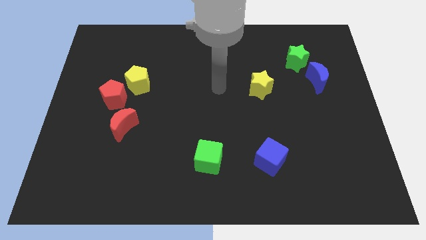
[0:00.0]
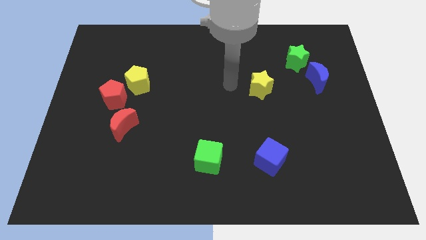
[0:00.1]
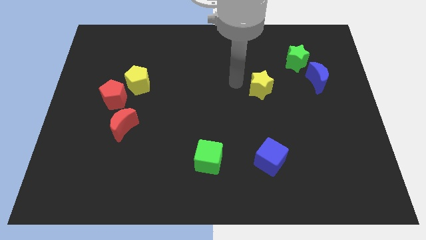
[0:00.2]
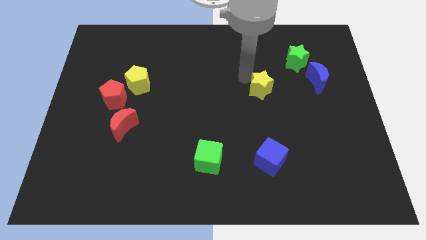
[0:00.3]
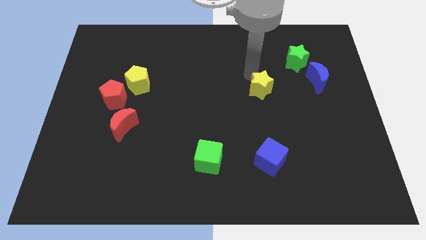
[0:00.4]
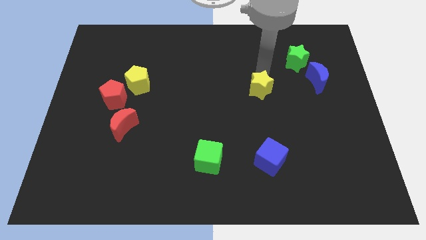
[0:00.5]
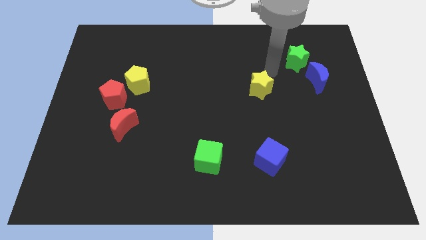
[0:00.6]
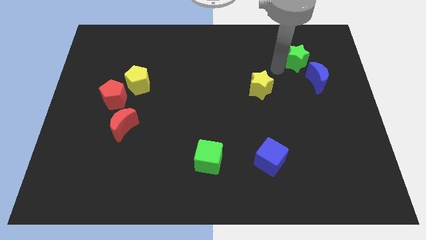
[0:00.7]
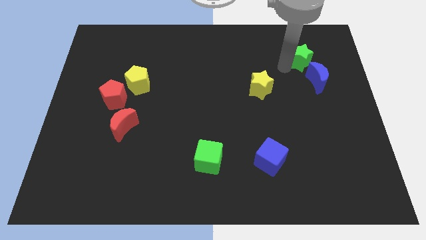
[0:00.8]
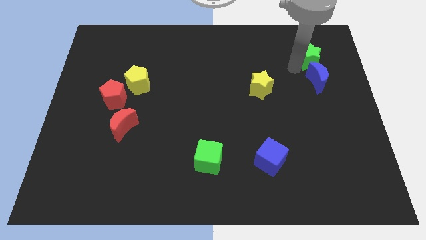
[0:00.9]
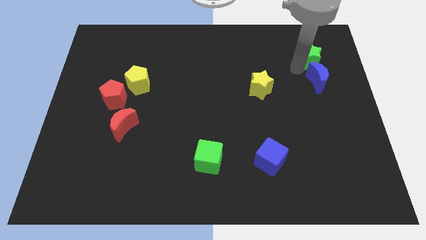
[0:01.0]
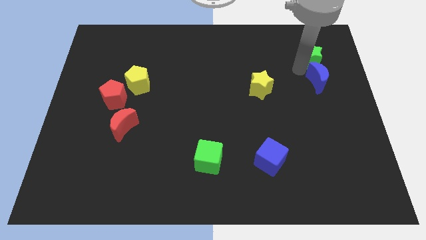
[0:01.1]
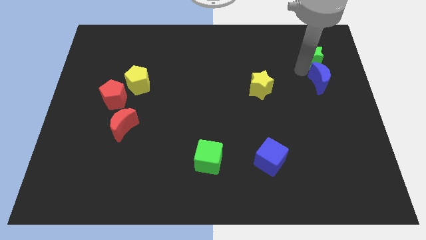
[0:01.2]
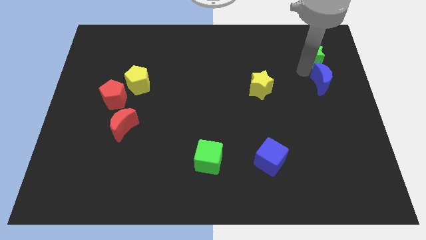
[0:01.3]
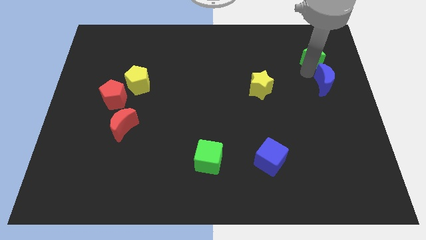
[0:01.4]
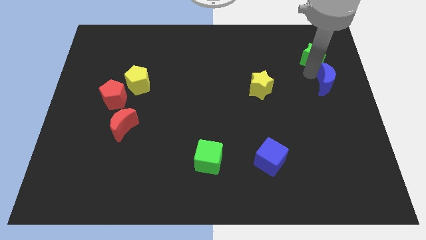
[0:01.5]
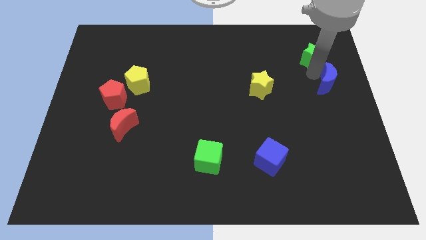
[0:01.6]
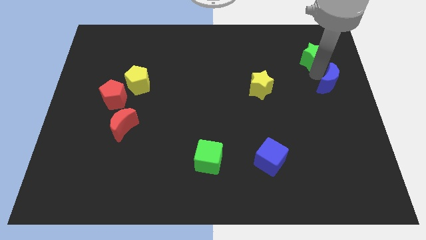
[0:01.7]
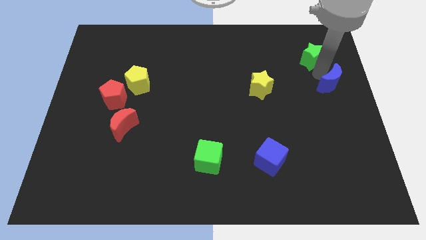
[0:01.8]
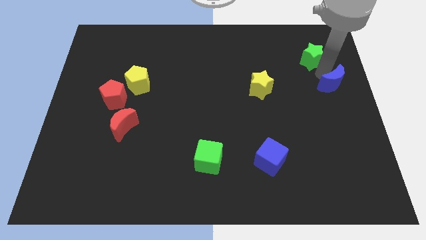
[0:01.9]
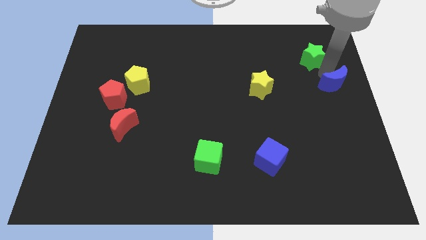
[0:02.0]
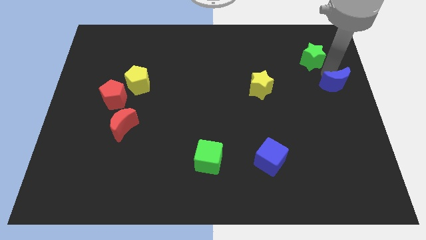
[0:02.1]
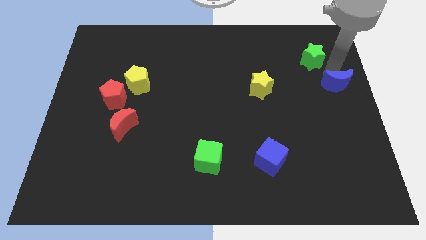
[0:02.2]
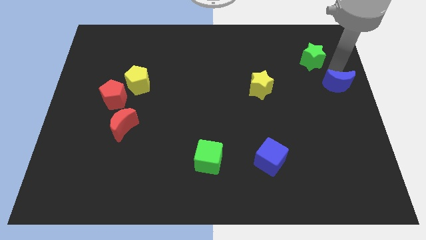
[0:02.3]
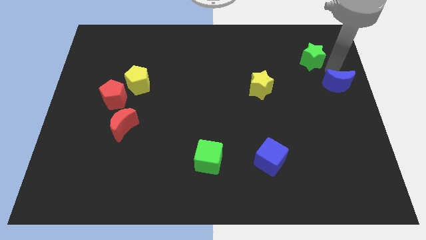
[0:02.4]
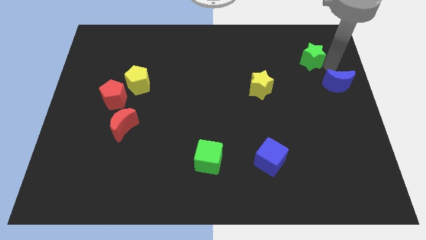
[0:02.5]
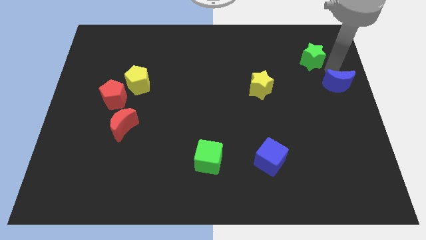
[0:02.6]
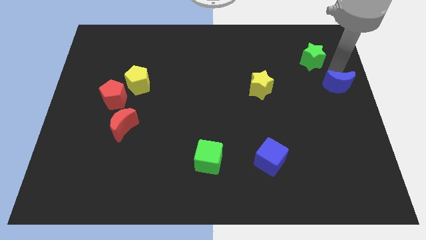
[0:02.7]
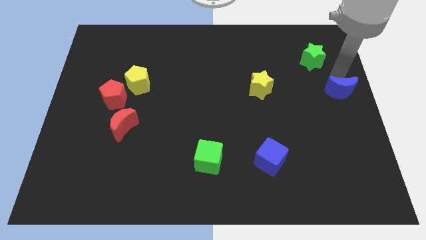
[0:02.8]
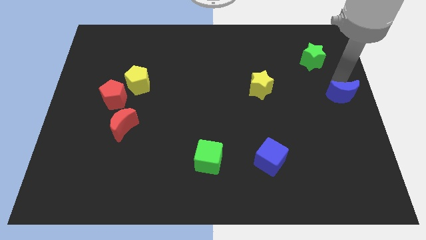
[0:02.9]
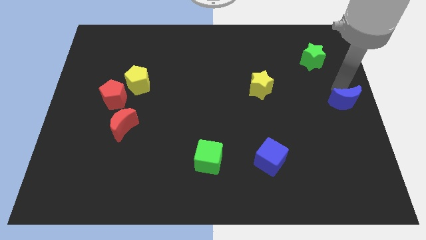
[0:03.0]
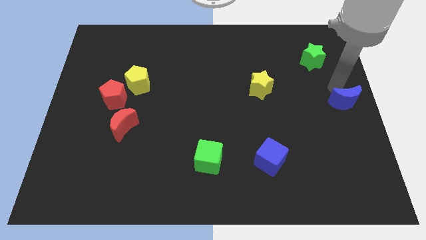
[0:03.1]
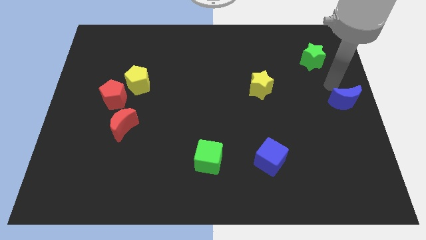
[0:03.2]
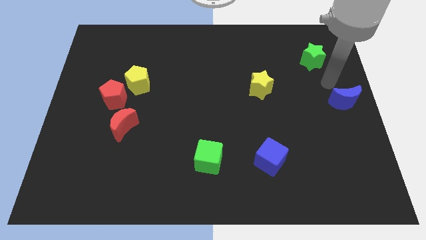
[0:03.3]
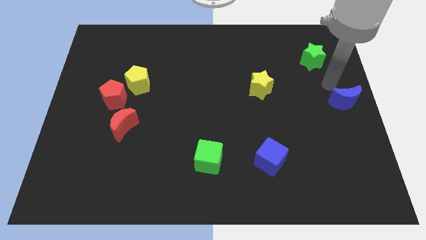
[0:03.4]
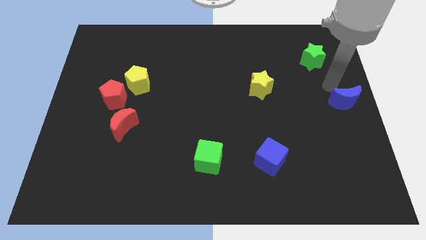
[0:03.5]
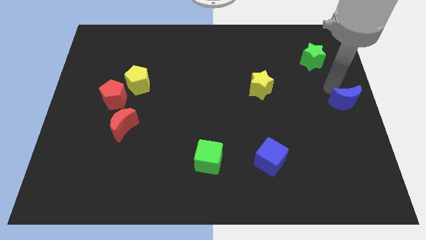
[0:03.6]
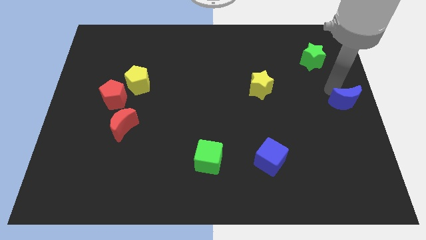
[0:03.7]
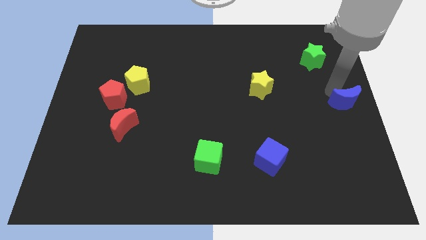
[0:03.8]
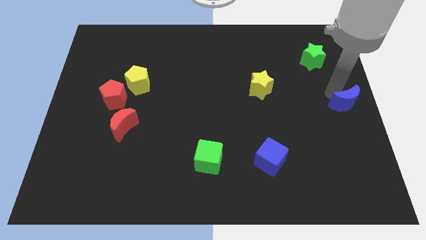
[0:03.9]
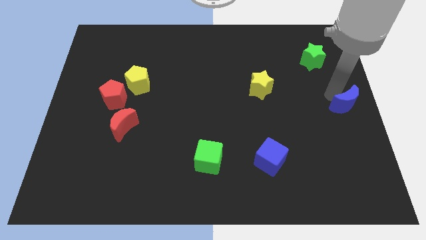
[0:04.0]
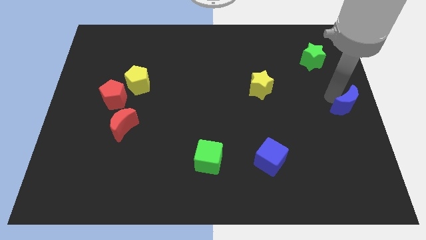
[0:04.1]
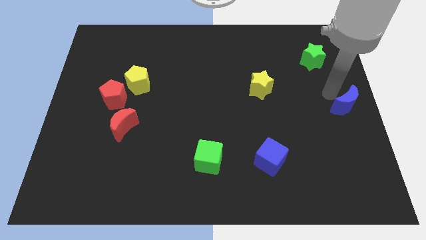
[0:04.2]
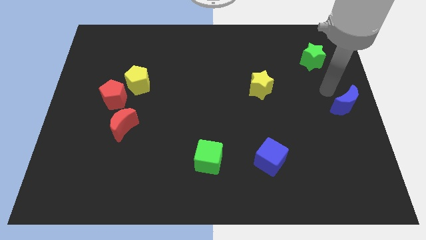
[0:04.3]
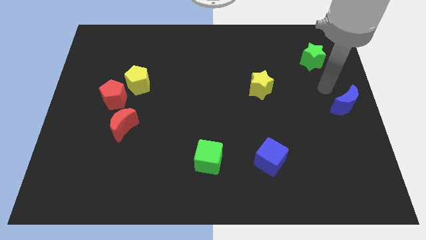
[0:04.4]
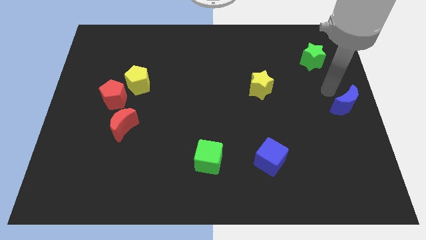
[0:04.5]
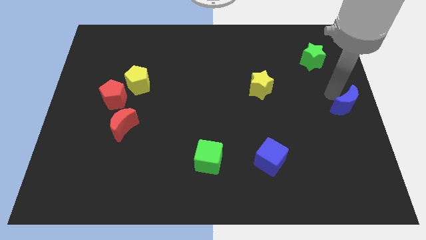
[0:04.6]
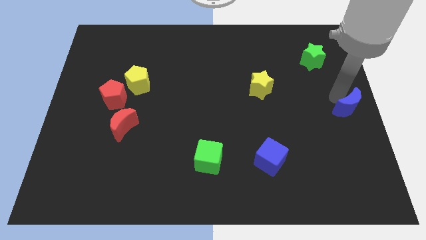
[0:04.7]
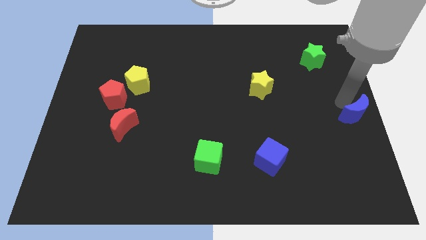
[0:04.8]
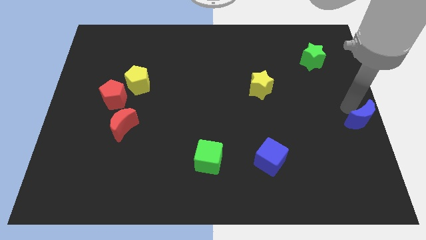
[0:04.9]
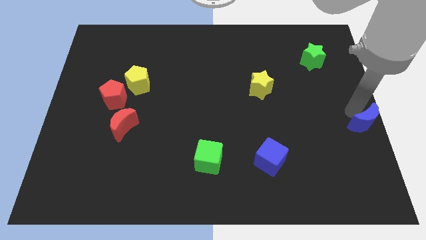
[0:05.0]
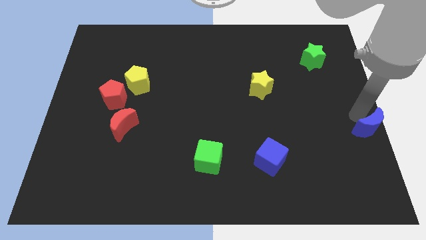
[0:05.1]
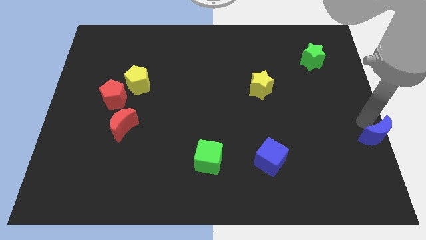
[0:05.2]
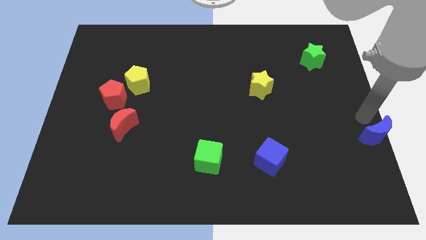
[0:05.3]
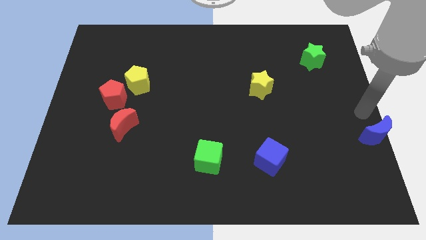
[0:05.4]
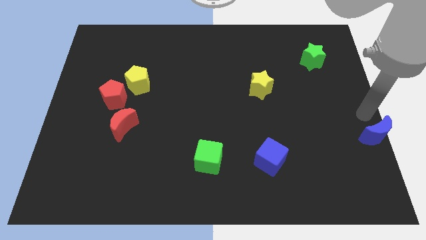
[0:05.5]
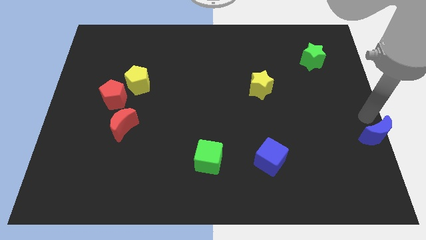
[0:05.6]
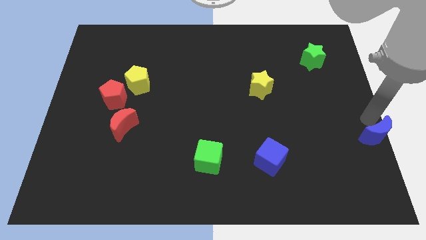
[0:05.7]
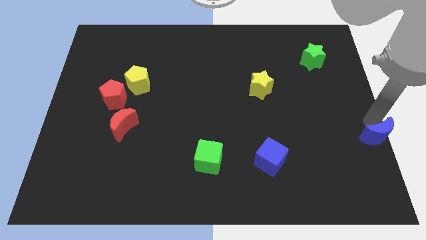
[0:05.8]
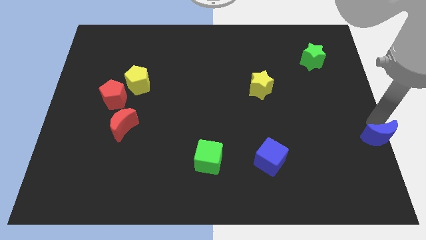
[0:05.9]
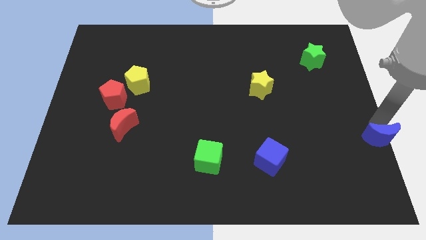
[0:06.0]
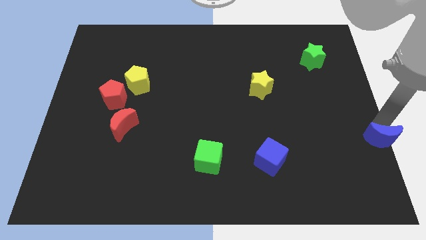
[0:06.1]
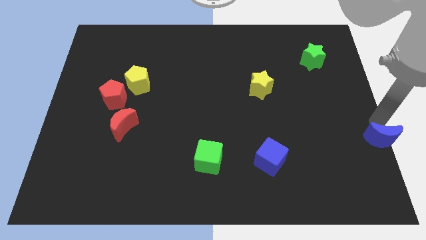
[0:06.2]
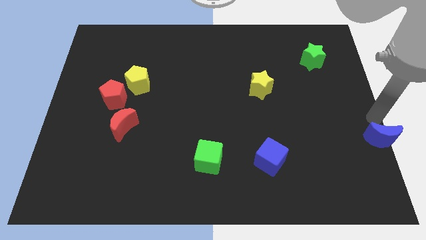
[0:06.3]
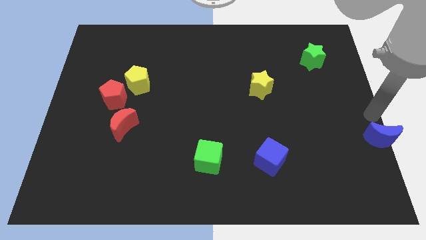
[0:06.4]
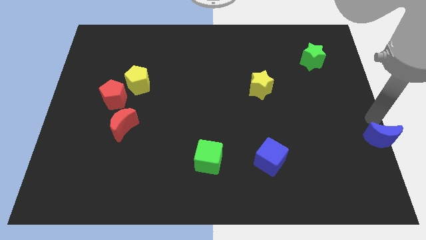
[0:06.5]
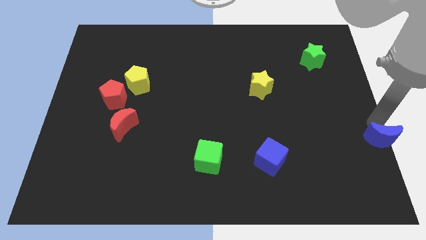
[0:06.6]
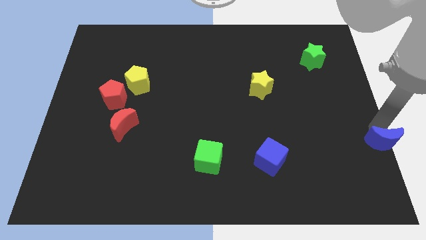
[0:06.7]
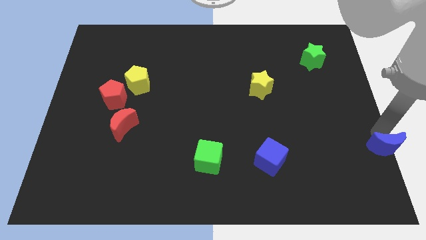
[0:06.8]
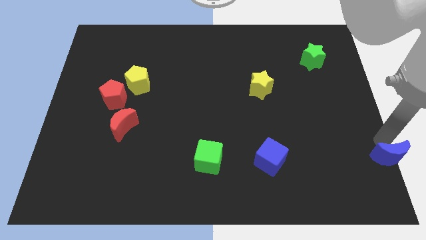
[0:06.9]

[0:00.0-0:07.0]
slide the blue moon to the bottom right

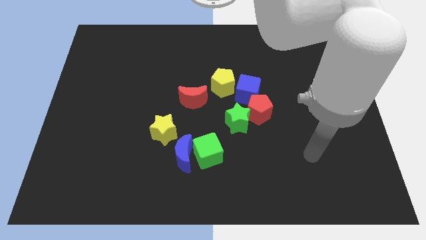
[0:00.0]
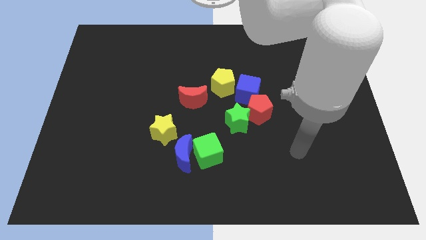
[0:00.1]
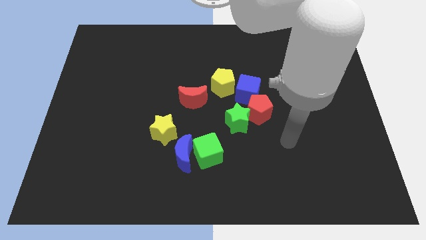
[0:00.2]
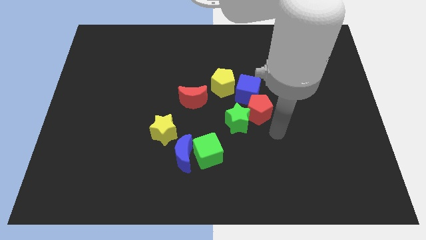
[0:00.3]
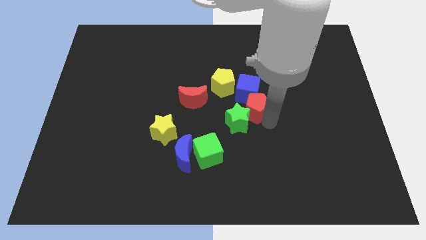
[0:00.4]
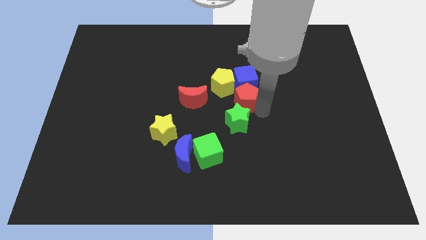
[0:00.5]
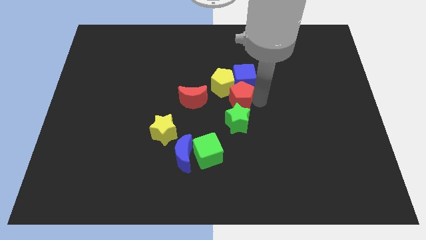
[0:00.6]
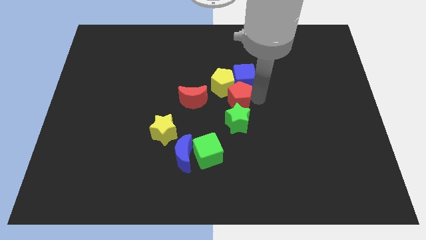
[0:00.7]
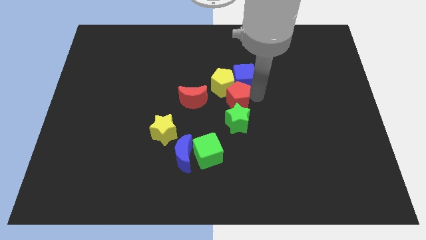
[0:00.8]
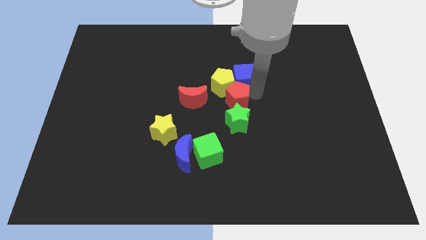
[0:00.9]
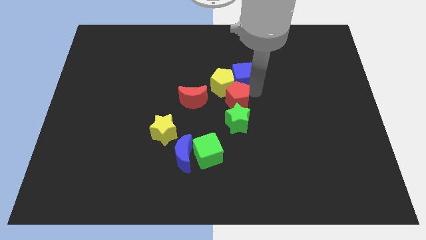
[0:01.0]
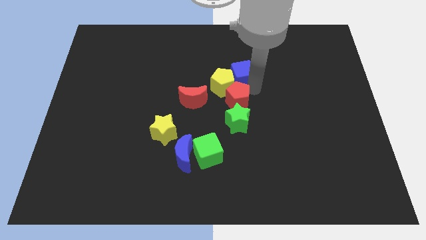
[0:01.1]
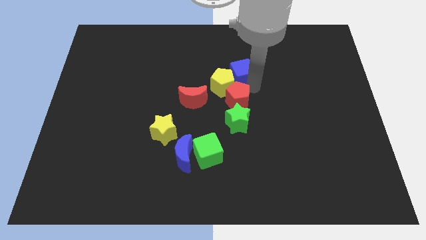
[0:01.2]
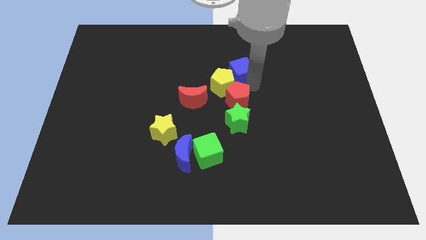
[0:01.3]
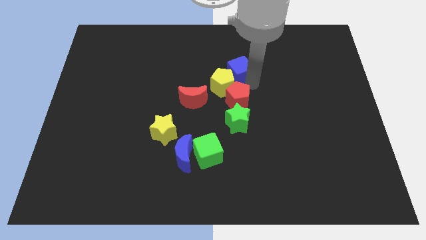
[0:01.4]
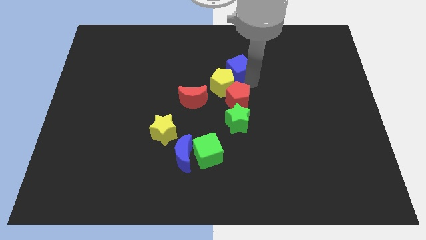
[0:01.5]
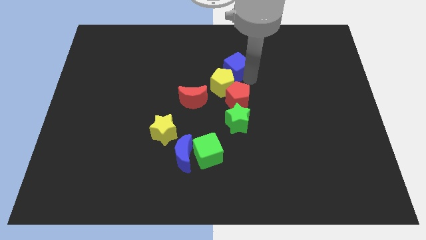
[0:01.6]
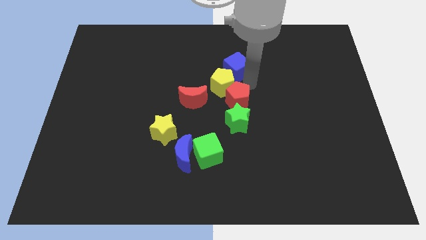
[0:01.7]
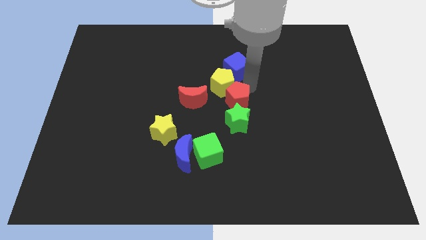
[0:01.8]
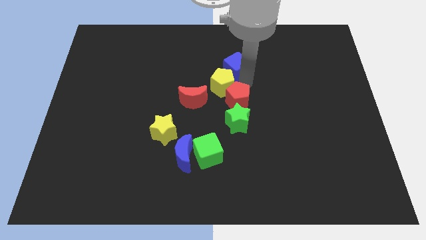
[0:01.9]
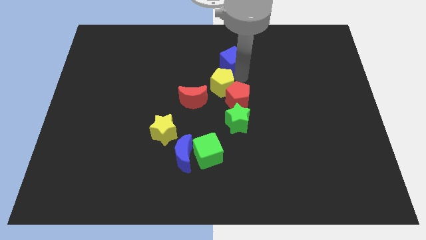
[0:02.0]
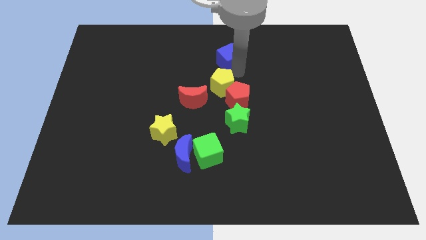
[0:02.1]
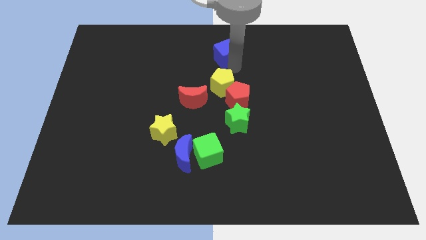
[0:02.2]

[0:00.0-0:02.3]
put the blue cube to the top side
